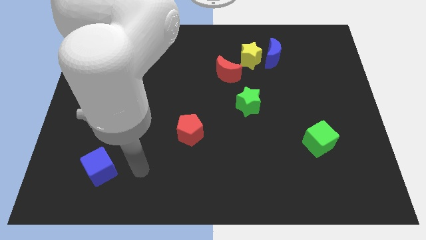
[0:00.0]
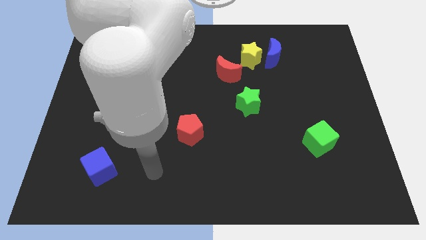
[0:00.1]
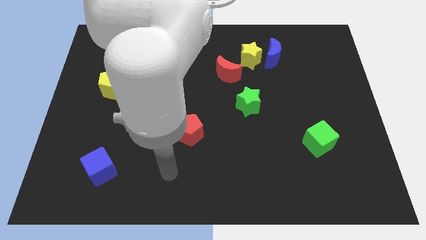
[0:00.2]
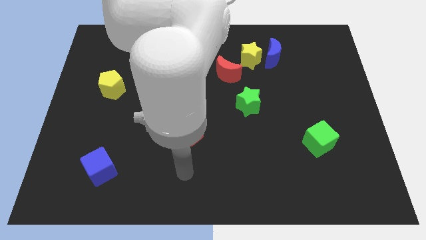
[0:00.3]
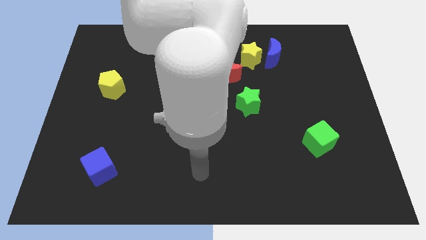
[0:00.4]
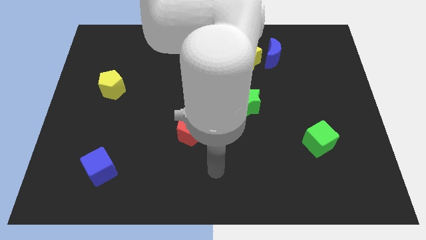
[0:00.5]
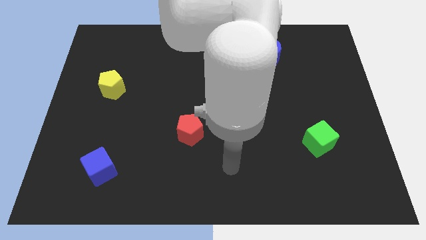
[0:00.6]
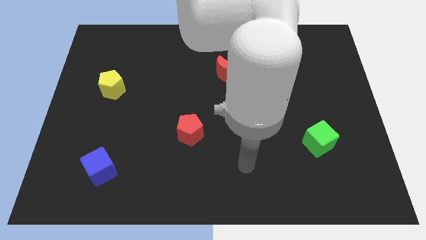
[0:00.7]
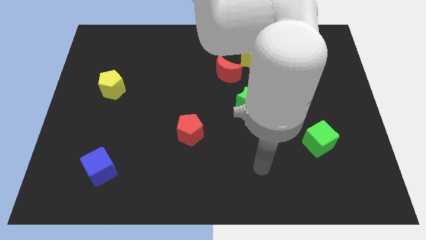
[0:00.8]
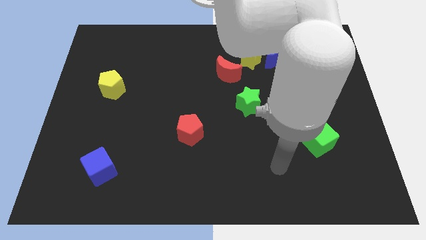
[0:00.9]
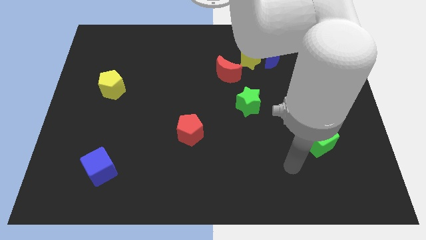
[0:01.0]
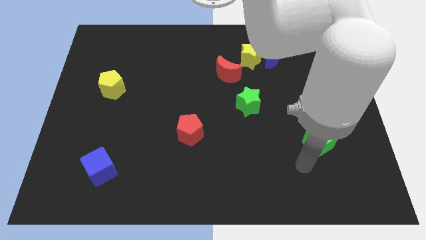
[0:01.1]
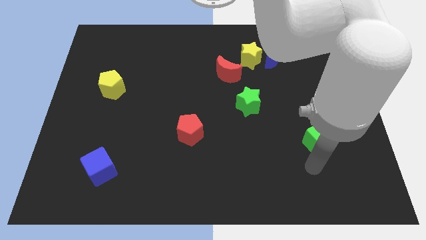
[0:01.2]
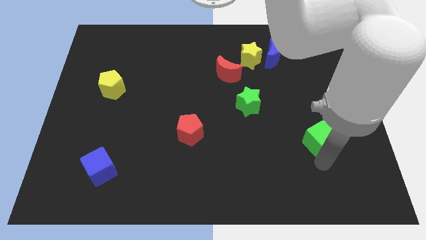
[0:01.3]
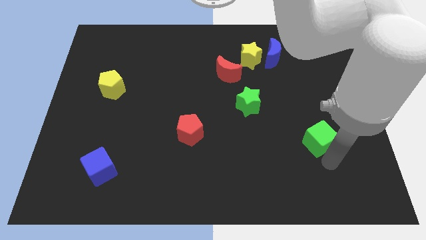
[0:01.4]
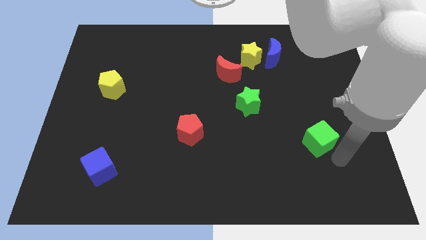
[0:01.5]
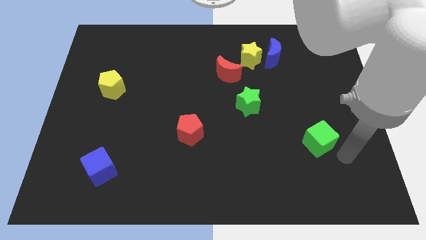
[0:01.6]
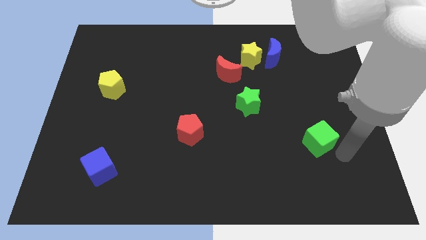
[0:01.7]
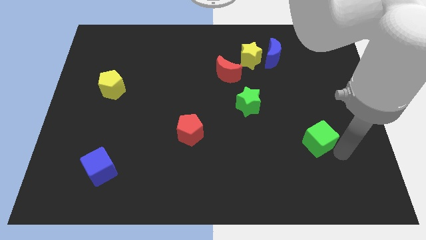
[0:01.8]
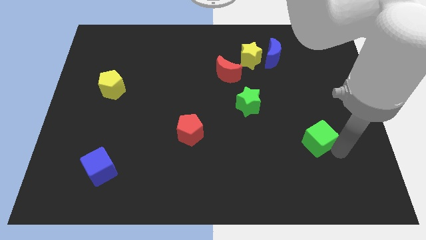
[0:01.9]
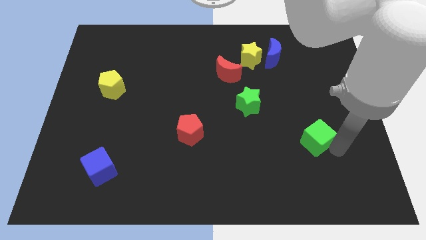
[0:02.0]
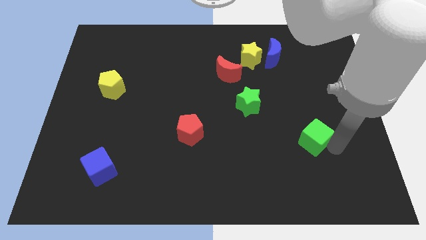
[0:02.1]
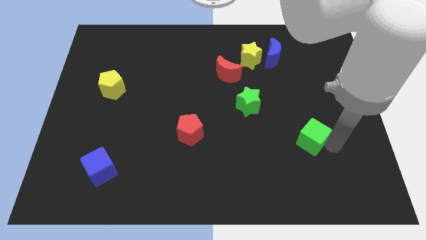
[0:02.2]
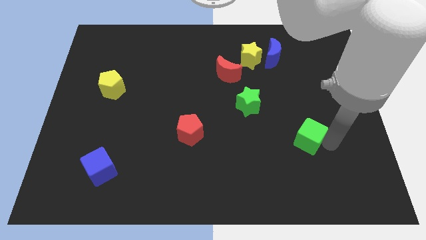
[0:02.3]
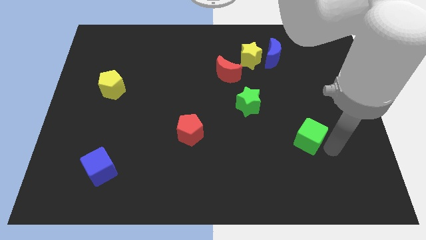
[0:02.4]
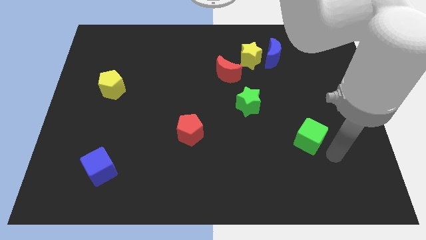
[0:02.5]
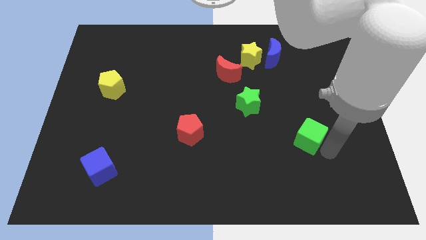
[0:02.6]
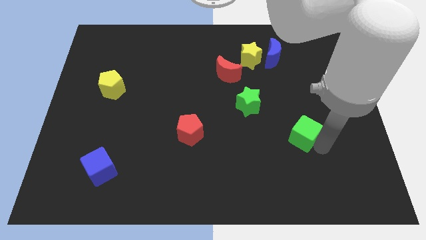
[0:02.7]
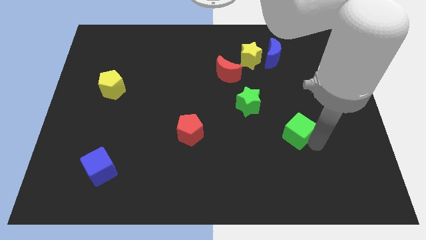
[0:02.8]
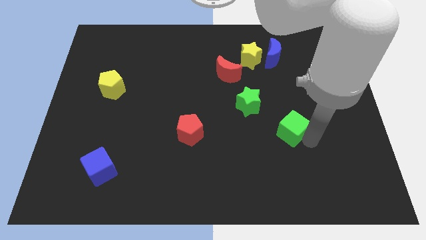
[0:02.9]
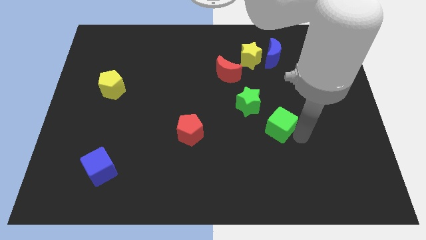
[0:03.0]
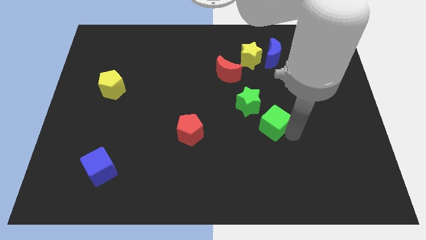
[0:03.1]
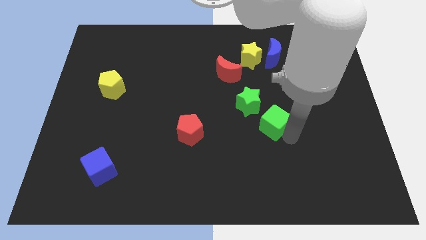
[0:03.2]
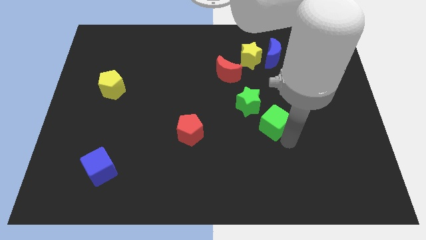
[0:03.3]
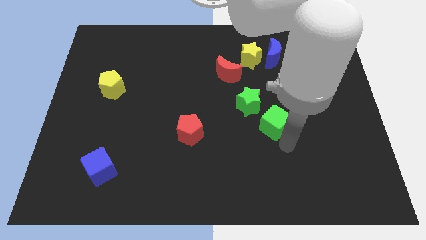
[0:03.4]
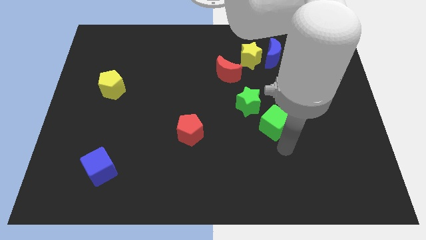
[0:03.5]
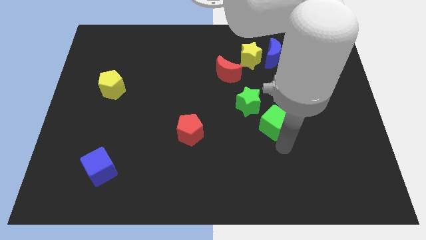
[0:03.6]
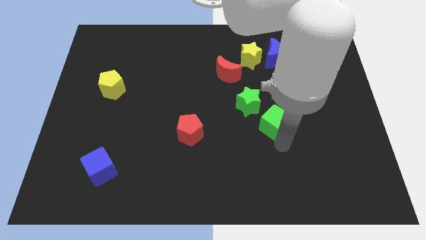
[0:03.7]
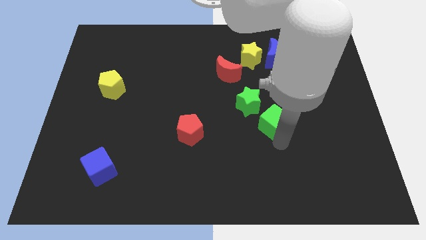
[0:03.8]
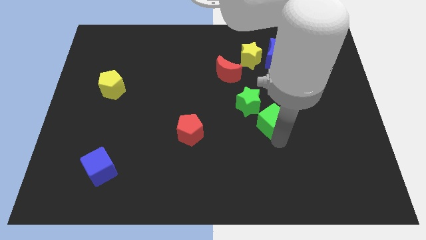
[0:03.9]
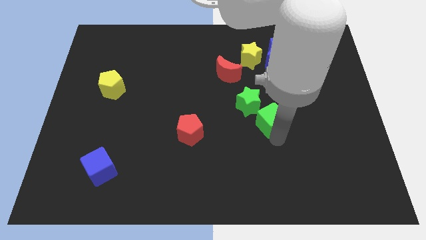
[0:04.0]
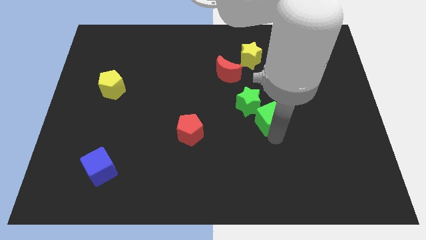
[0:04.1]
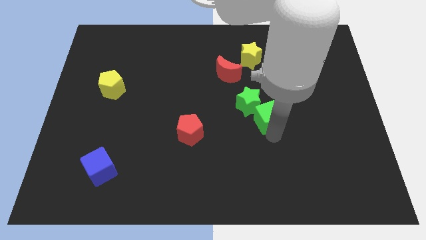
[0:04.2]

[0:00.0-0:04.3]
push the green cube to the green star

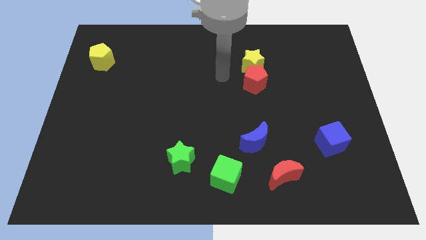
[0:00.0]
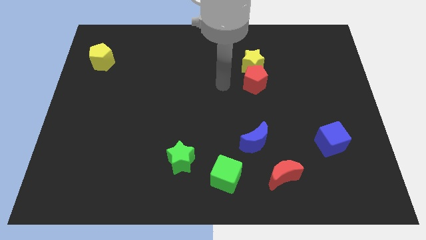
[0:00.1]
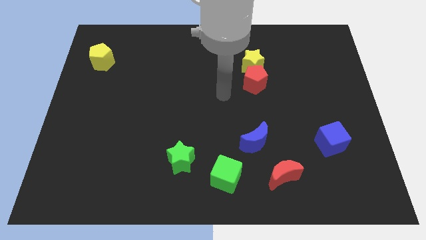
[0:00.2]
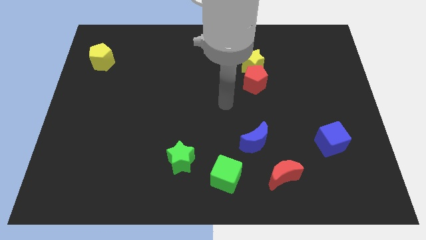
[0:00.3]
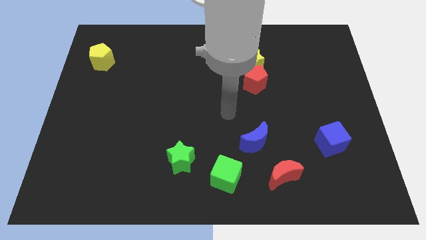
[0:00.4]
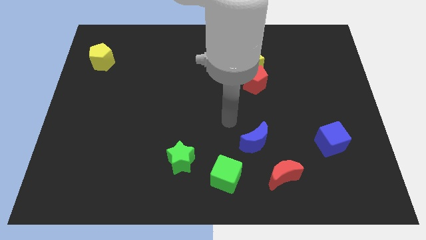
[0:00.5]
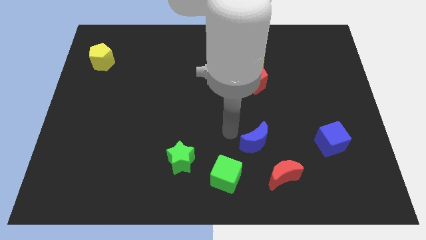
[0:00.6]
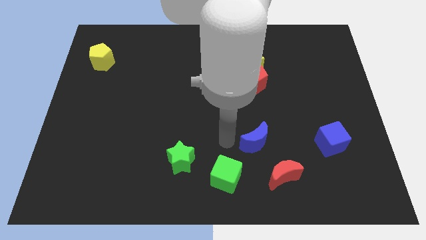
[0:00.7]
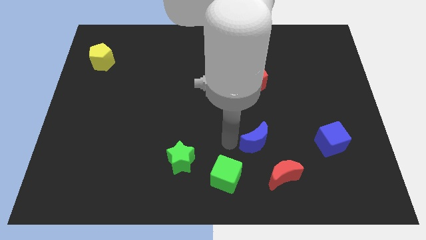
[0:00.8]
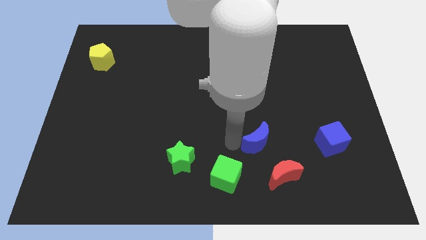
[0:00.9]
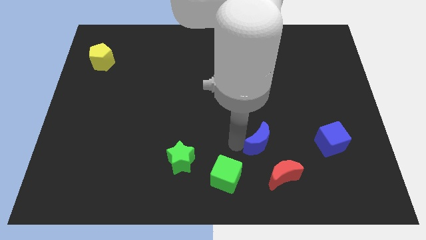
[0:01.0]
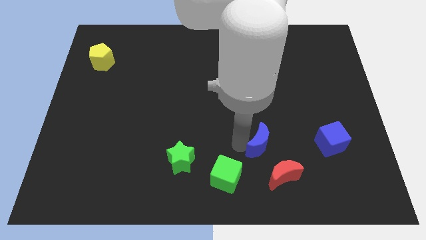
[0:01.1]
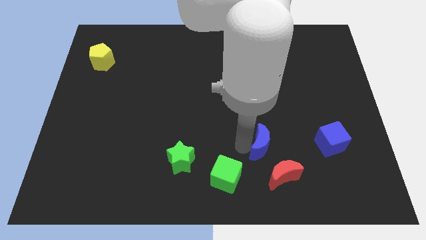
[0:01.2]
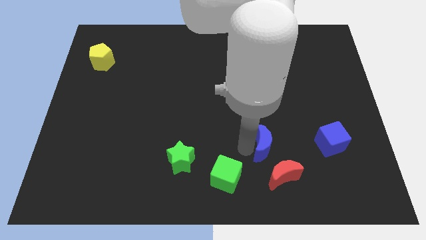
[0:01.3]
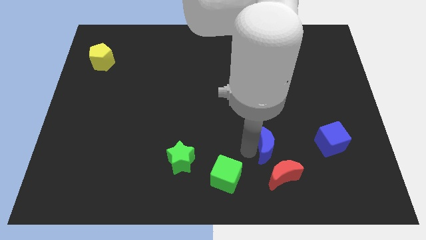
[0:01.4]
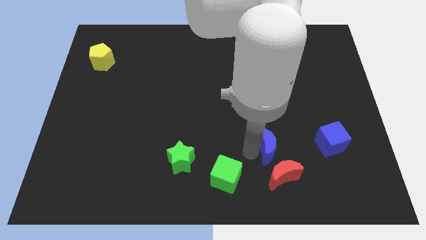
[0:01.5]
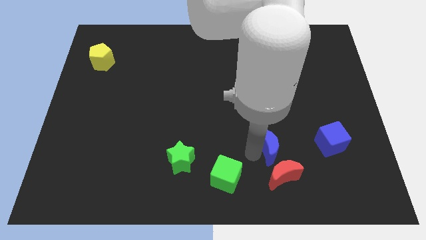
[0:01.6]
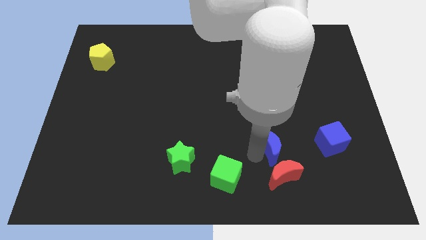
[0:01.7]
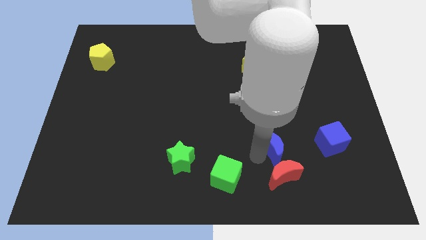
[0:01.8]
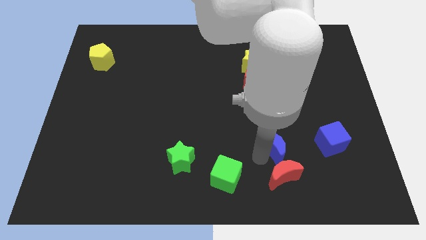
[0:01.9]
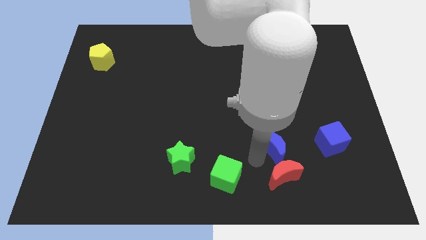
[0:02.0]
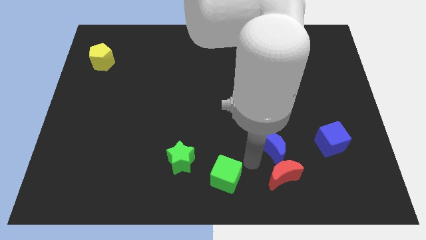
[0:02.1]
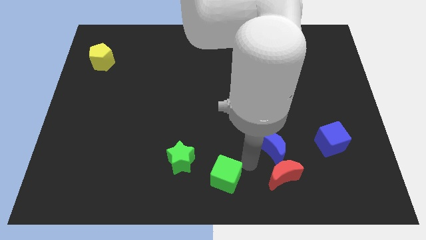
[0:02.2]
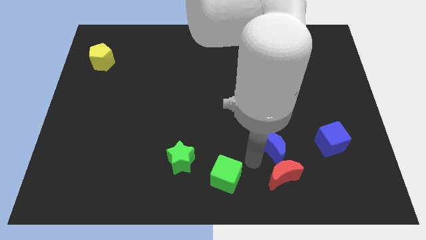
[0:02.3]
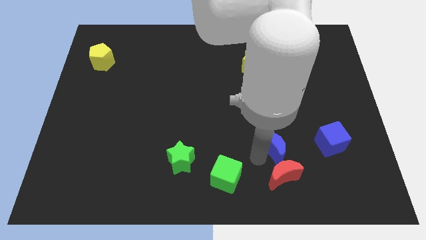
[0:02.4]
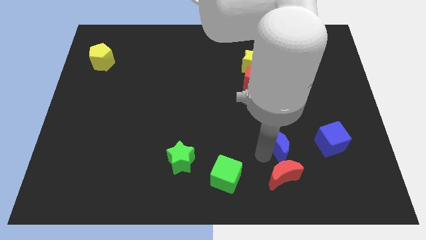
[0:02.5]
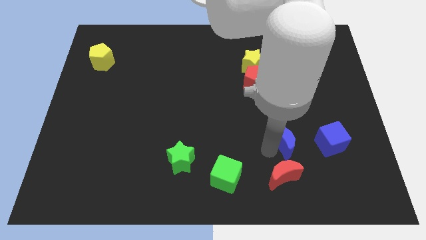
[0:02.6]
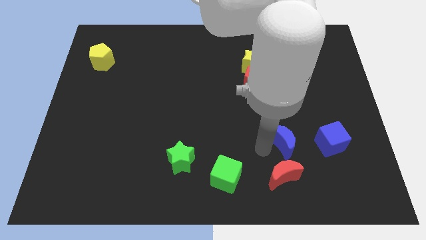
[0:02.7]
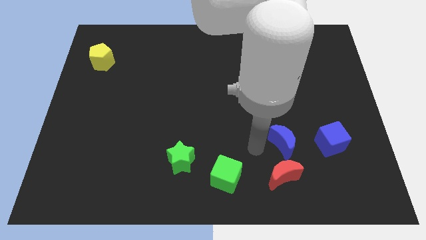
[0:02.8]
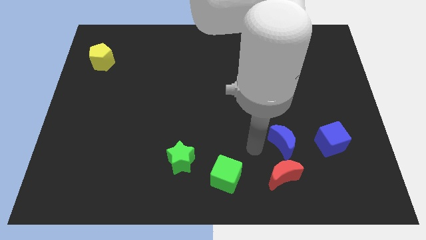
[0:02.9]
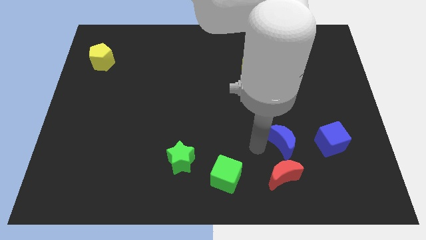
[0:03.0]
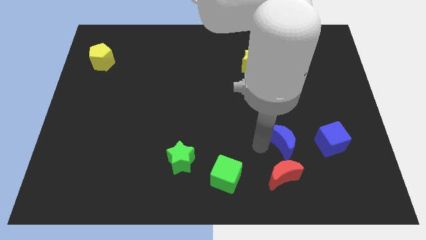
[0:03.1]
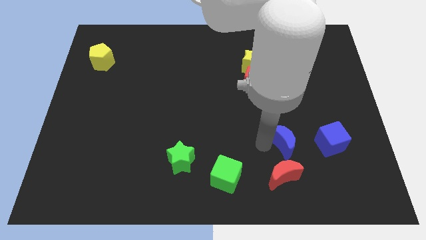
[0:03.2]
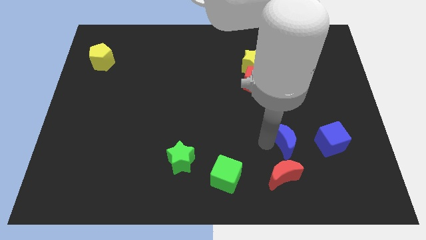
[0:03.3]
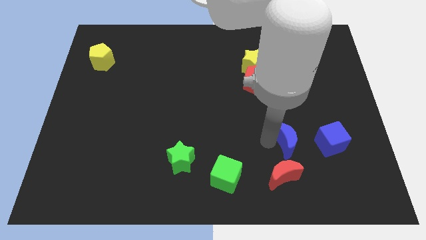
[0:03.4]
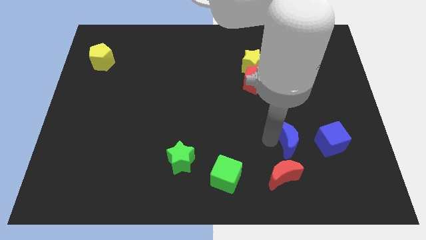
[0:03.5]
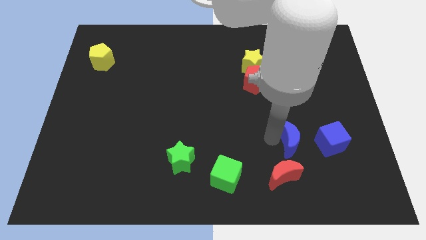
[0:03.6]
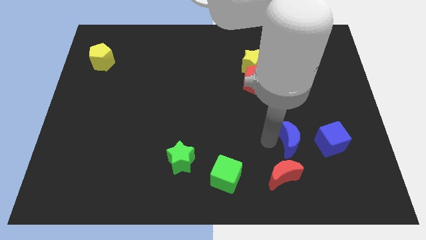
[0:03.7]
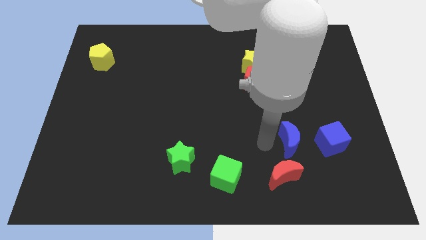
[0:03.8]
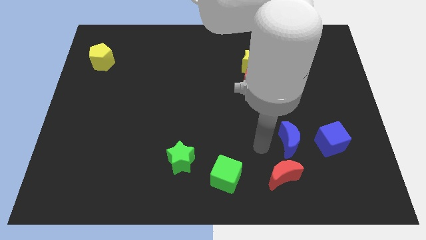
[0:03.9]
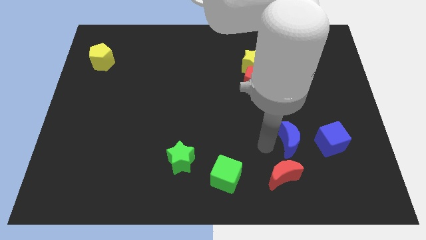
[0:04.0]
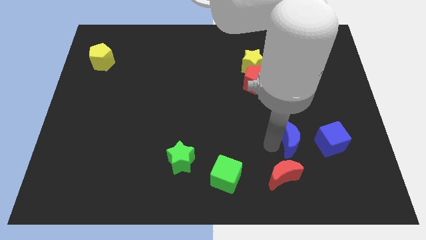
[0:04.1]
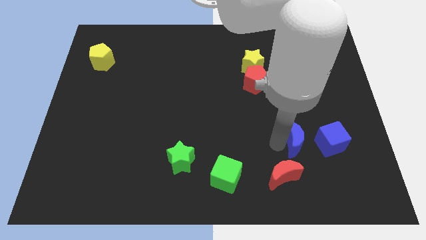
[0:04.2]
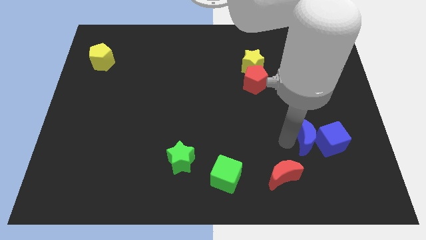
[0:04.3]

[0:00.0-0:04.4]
push the blue moon close to the blue cube
